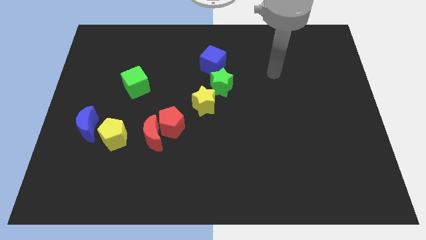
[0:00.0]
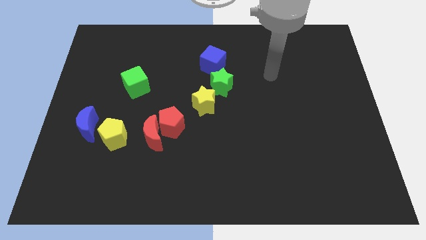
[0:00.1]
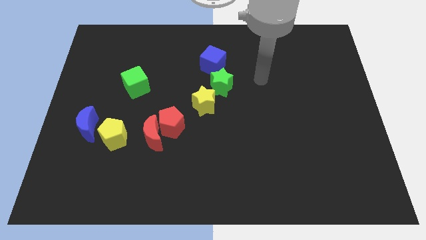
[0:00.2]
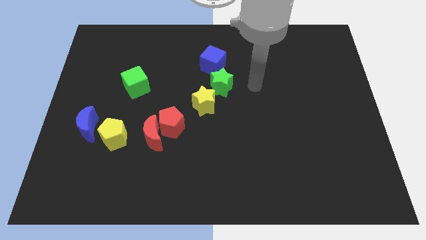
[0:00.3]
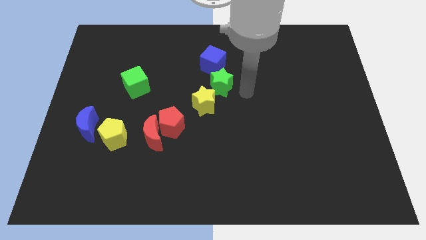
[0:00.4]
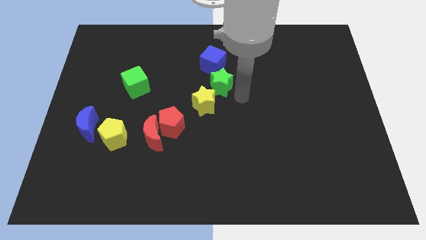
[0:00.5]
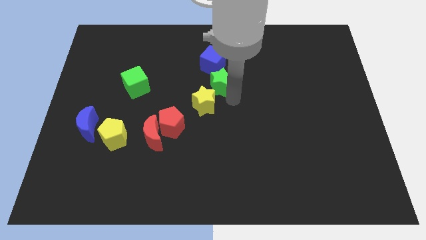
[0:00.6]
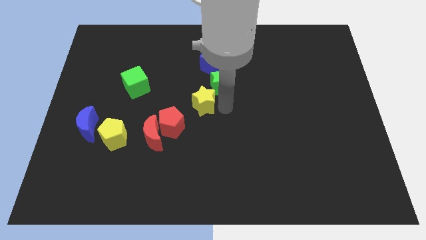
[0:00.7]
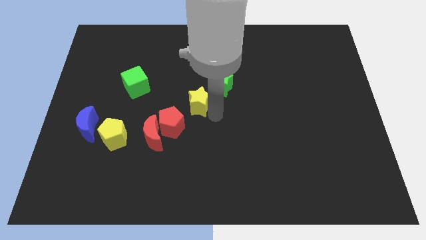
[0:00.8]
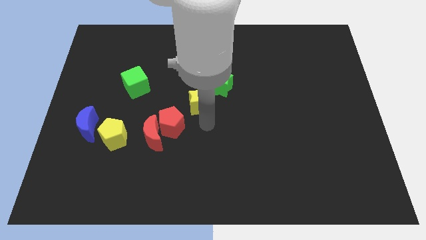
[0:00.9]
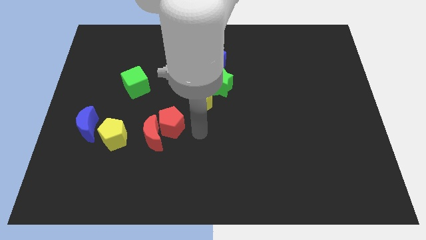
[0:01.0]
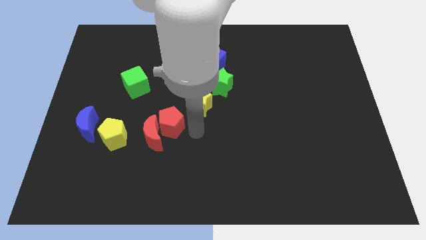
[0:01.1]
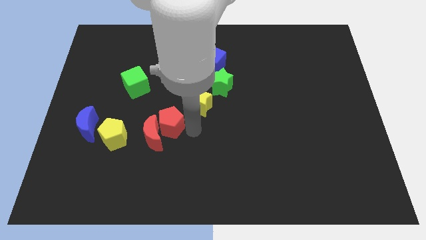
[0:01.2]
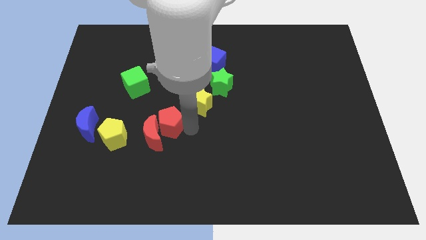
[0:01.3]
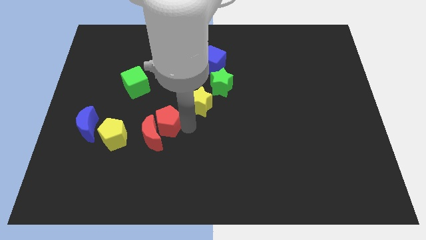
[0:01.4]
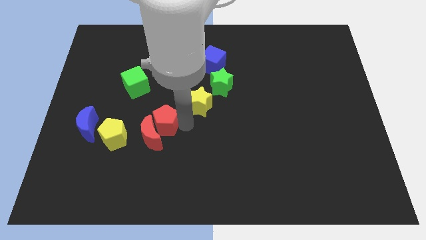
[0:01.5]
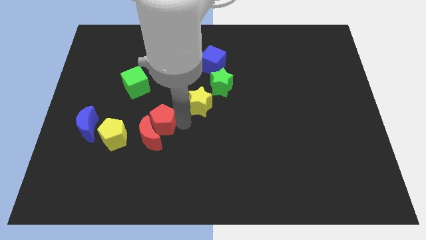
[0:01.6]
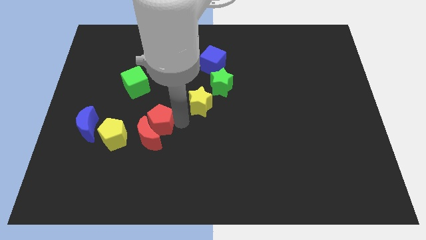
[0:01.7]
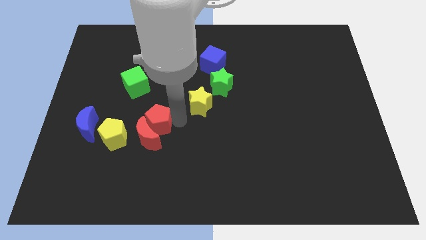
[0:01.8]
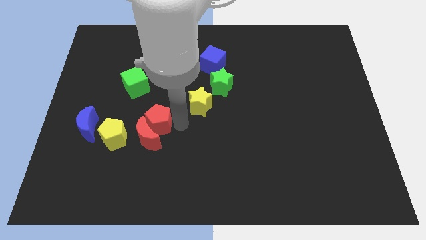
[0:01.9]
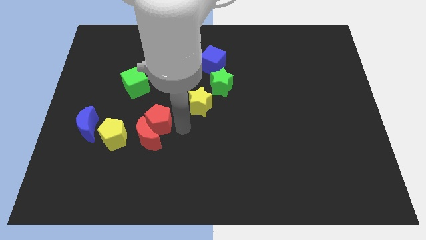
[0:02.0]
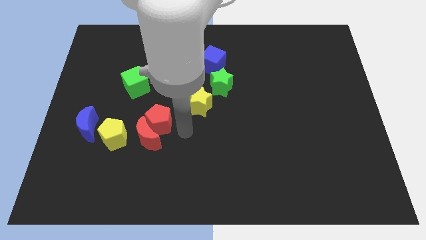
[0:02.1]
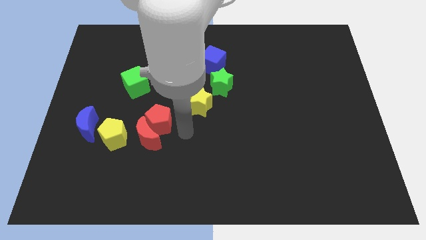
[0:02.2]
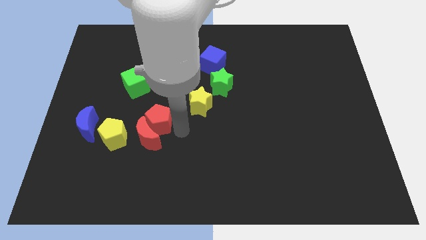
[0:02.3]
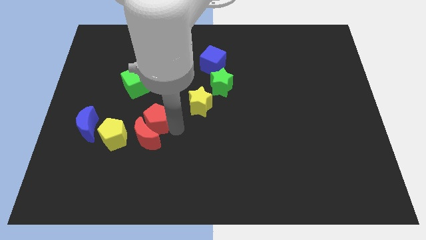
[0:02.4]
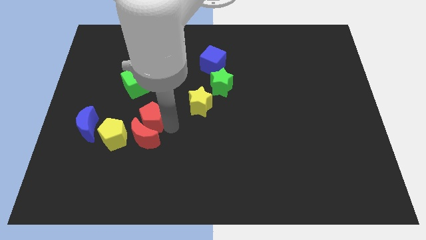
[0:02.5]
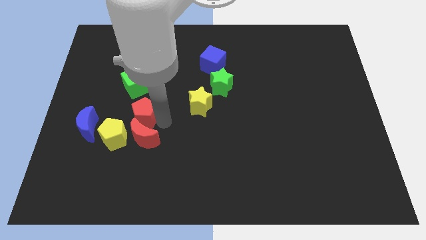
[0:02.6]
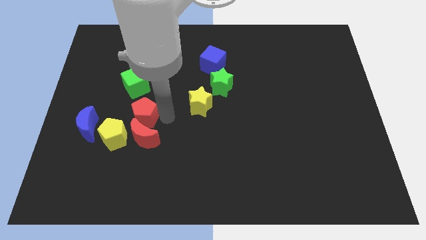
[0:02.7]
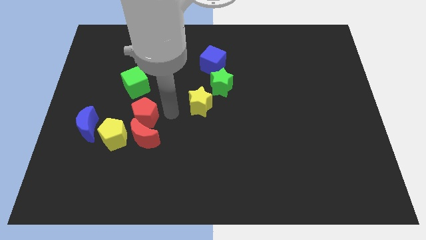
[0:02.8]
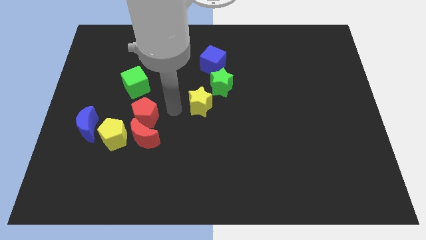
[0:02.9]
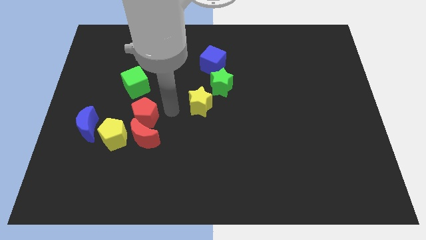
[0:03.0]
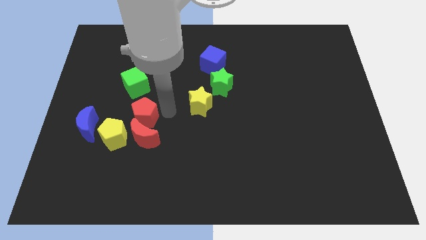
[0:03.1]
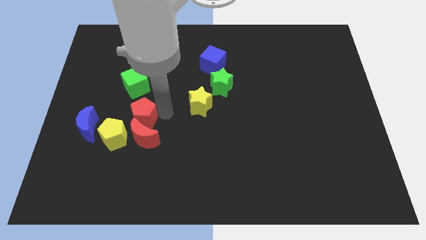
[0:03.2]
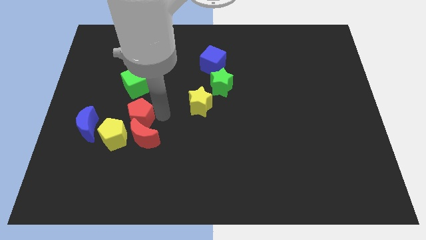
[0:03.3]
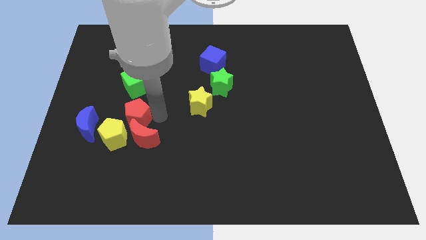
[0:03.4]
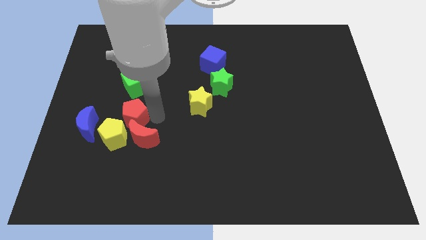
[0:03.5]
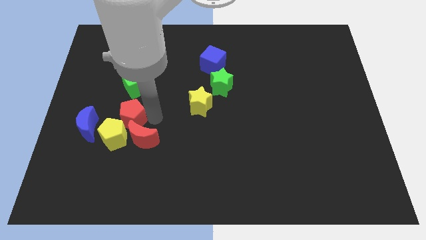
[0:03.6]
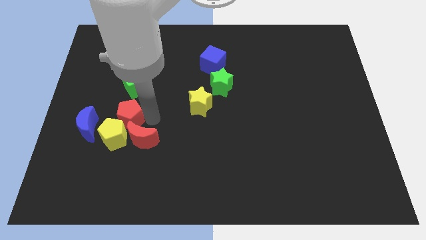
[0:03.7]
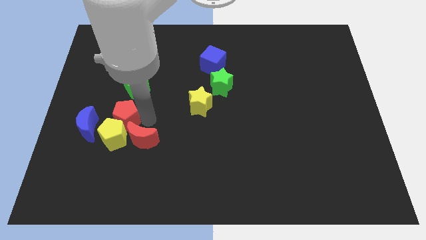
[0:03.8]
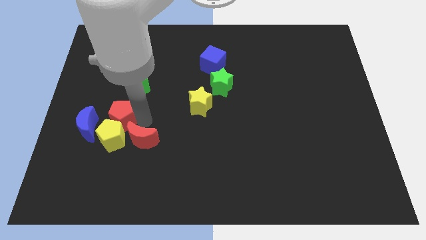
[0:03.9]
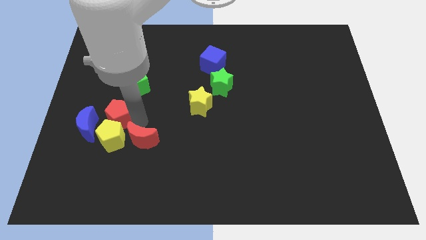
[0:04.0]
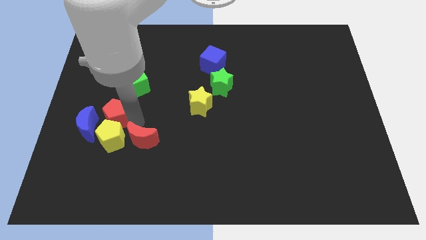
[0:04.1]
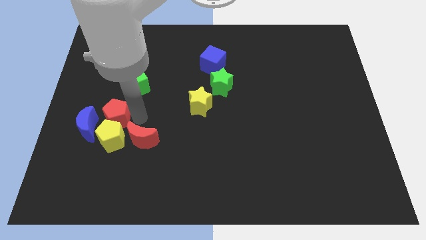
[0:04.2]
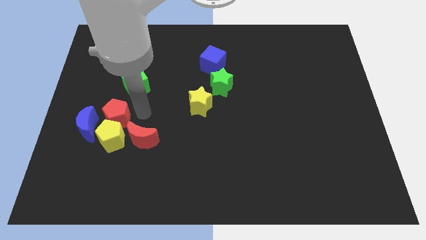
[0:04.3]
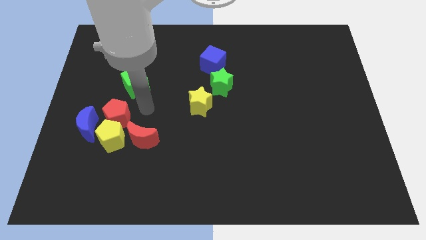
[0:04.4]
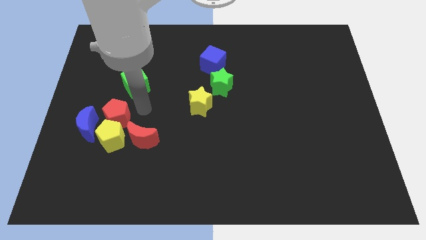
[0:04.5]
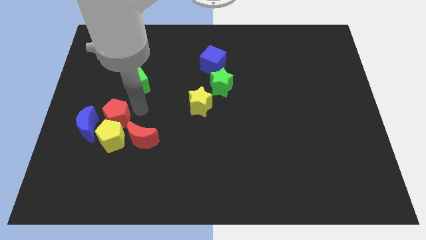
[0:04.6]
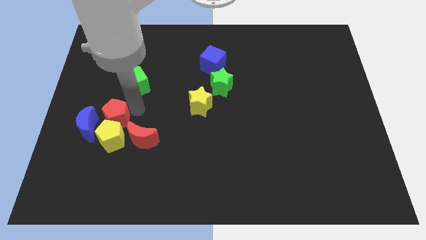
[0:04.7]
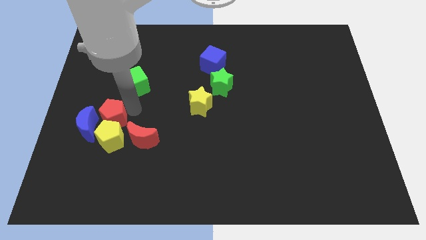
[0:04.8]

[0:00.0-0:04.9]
put the red pentagon close to the blue moon

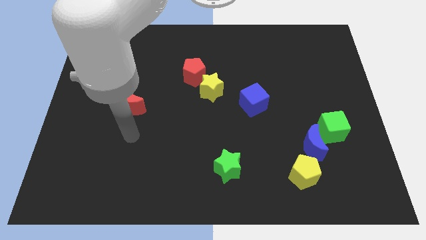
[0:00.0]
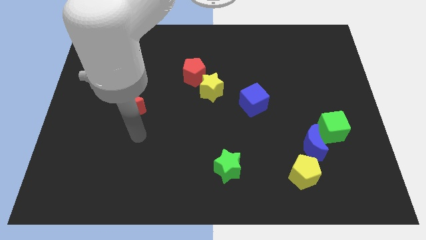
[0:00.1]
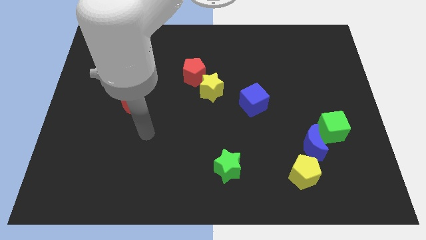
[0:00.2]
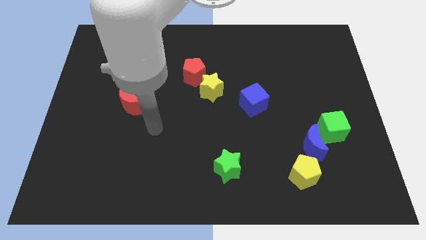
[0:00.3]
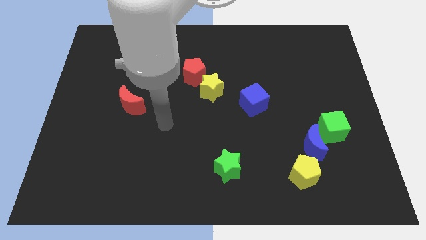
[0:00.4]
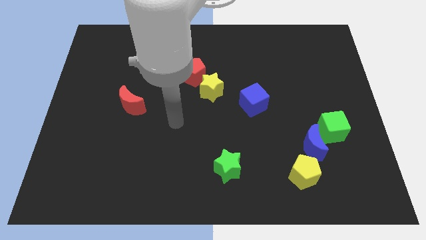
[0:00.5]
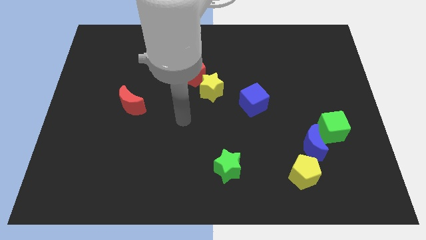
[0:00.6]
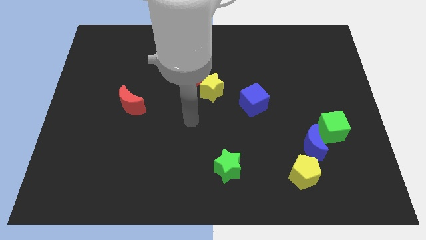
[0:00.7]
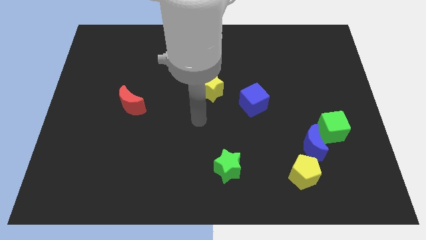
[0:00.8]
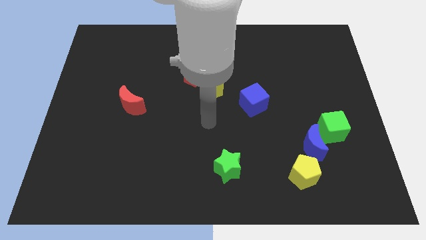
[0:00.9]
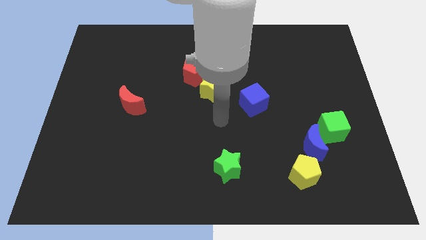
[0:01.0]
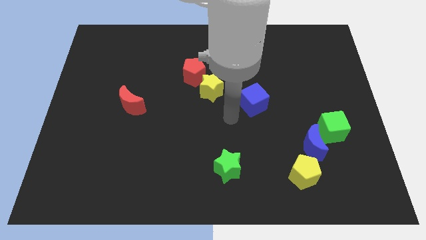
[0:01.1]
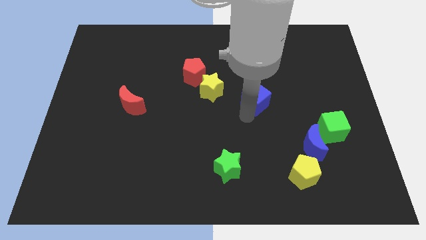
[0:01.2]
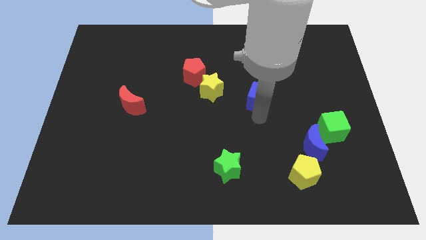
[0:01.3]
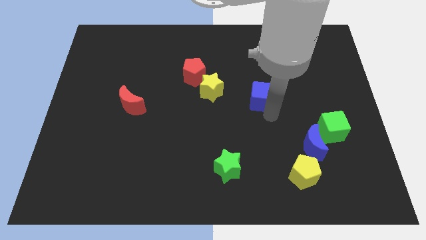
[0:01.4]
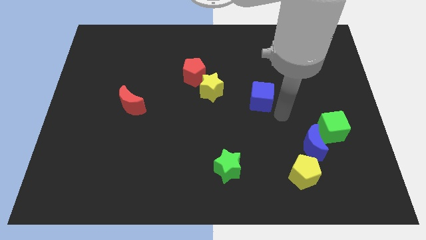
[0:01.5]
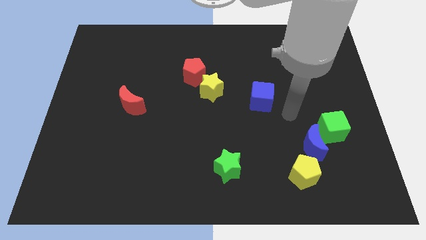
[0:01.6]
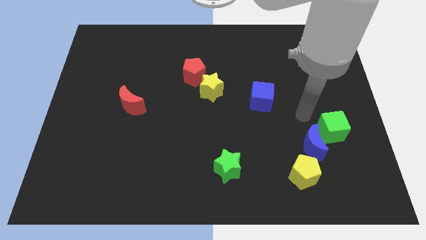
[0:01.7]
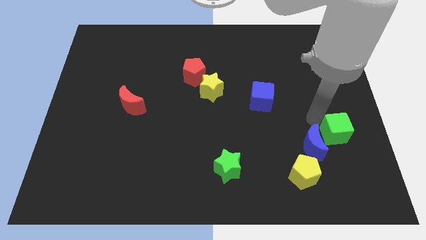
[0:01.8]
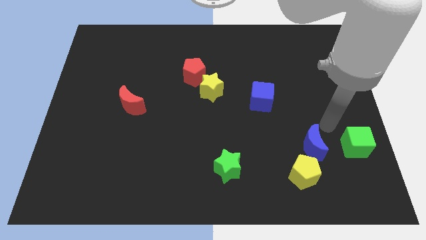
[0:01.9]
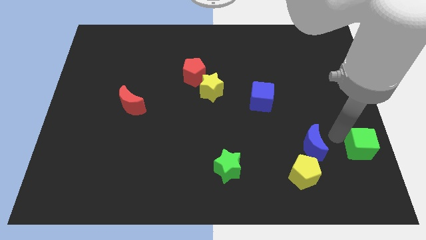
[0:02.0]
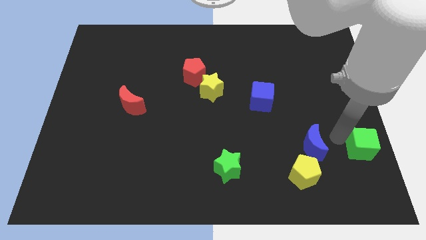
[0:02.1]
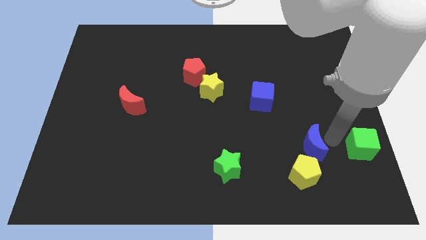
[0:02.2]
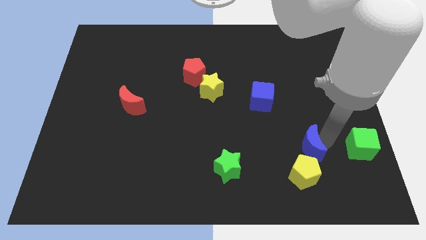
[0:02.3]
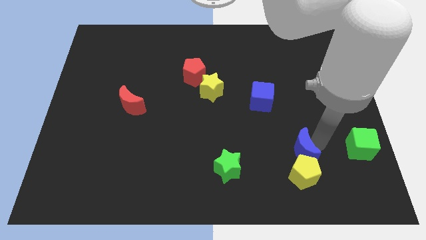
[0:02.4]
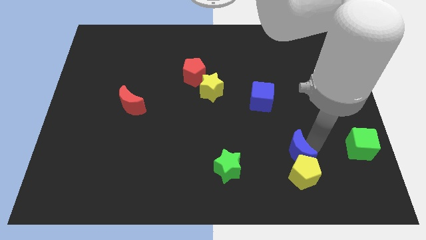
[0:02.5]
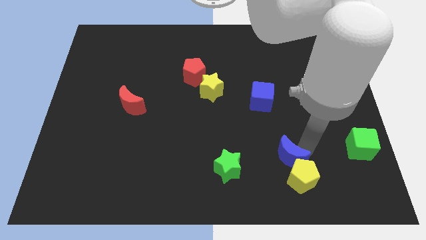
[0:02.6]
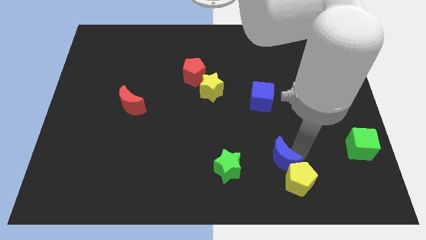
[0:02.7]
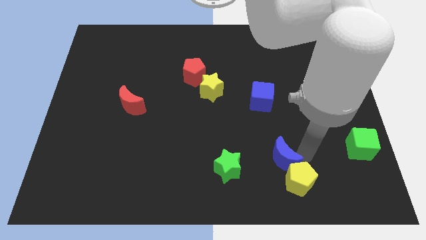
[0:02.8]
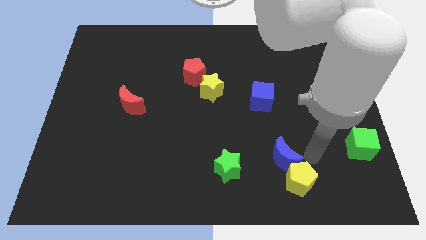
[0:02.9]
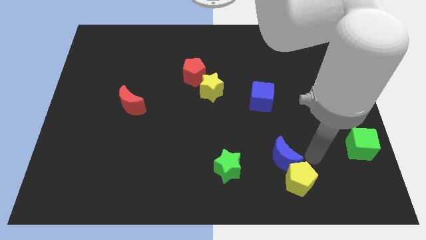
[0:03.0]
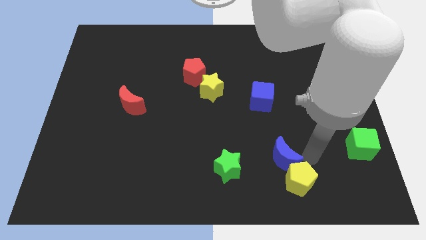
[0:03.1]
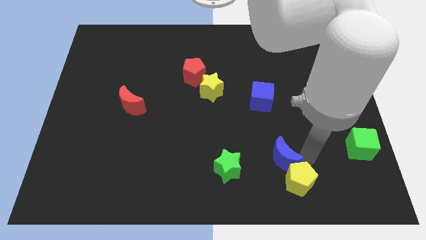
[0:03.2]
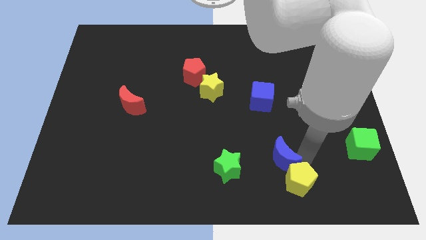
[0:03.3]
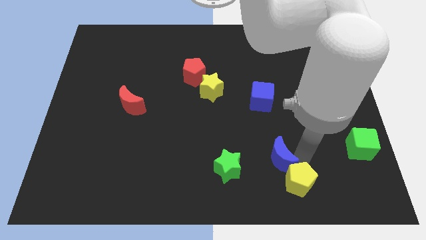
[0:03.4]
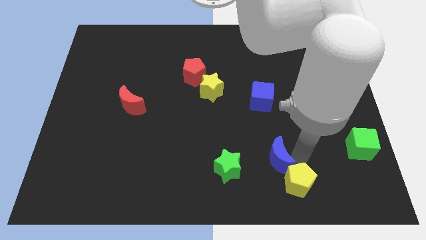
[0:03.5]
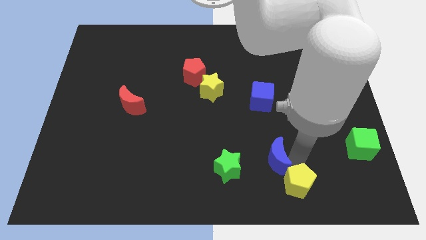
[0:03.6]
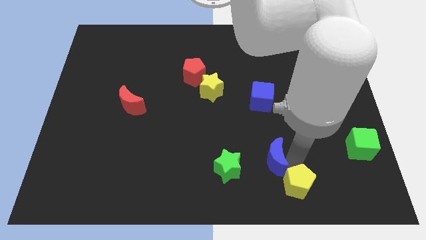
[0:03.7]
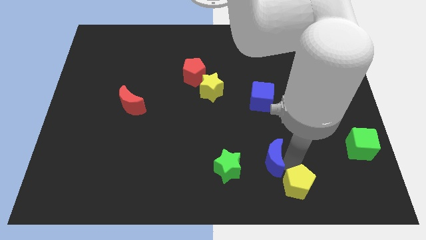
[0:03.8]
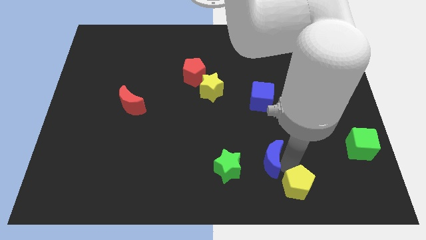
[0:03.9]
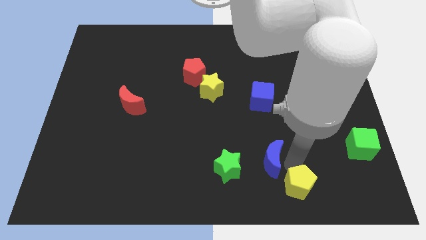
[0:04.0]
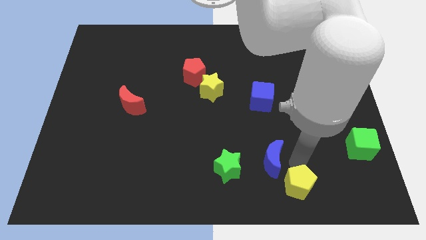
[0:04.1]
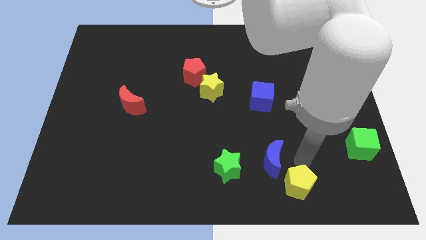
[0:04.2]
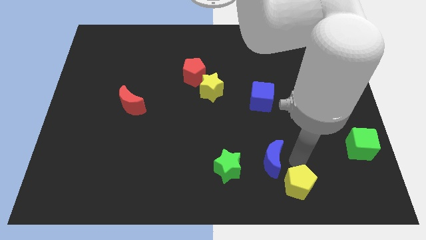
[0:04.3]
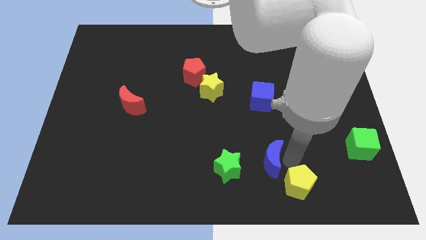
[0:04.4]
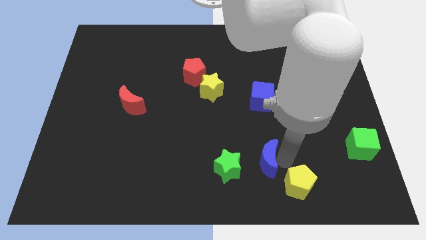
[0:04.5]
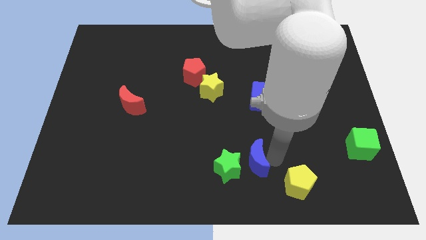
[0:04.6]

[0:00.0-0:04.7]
slide the blue moon towards the green star
